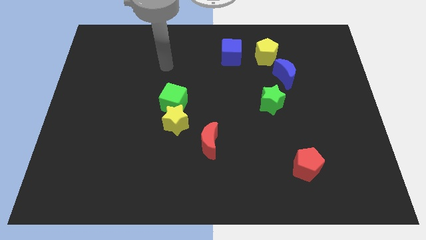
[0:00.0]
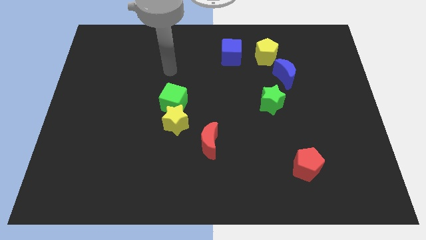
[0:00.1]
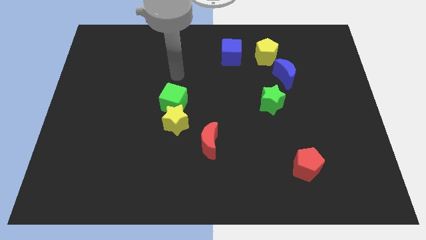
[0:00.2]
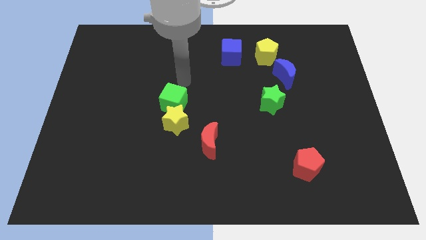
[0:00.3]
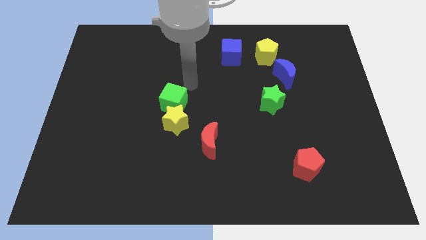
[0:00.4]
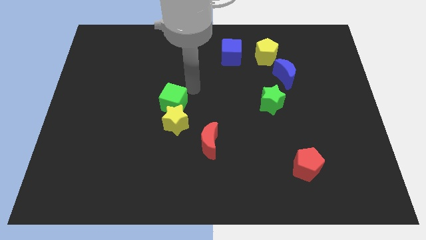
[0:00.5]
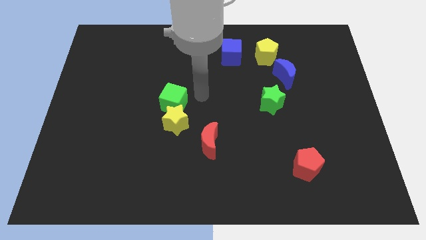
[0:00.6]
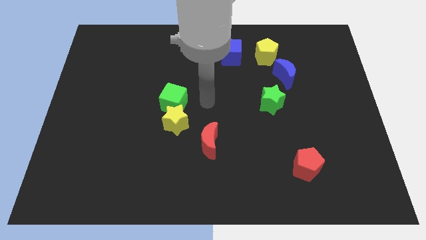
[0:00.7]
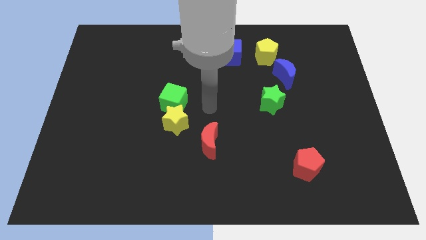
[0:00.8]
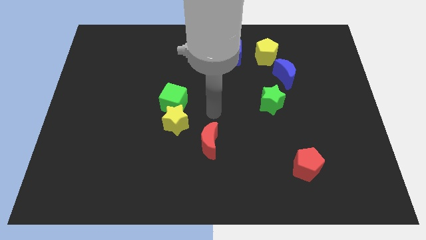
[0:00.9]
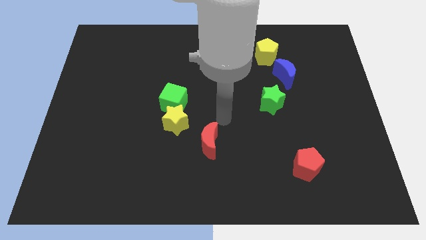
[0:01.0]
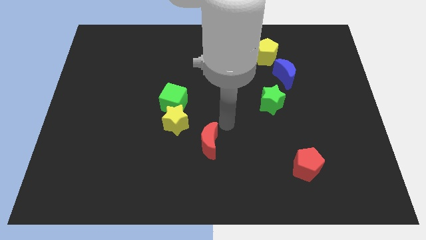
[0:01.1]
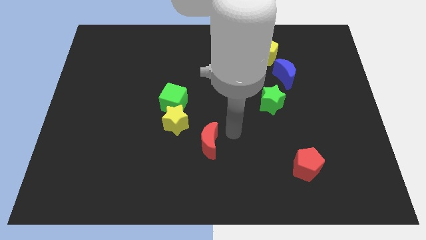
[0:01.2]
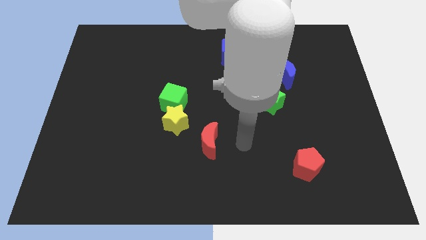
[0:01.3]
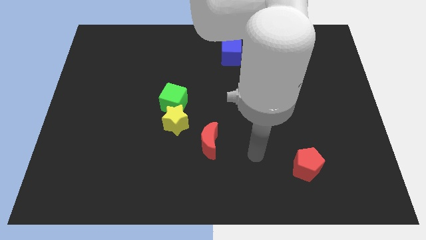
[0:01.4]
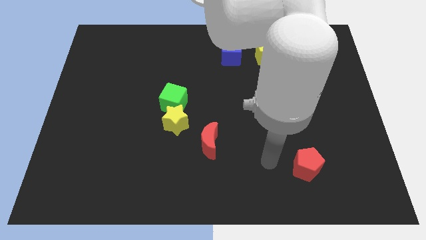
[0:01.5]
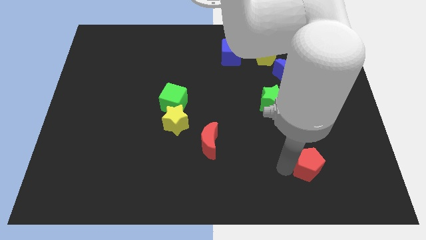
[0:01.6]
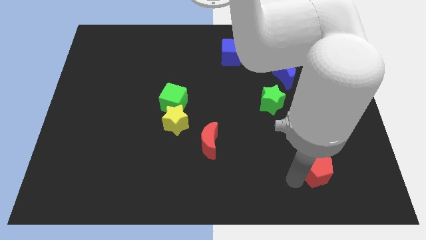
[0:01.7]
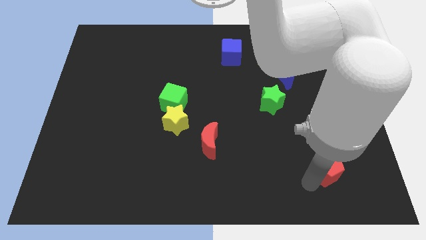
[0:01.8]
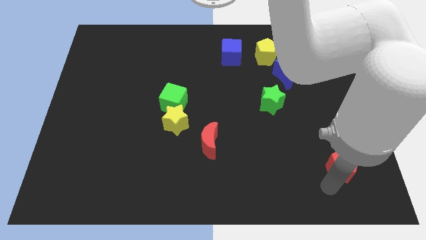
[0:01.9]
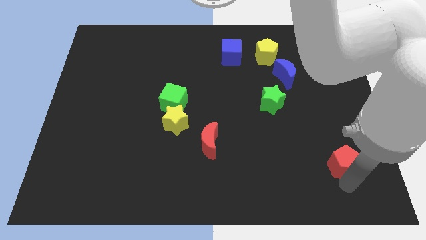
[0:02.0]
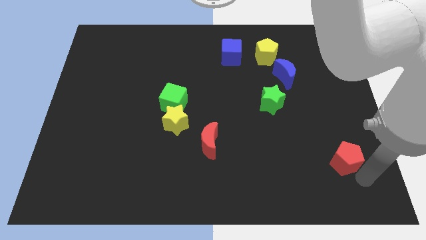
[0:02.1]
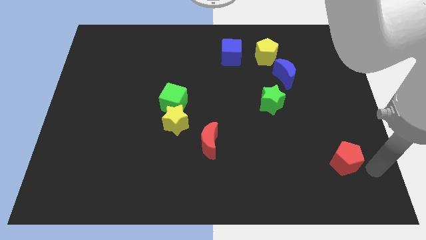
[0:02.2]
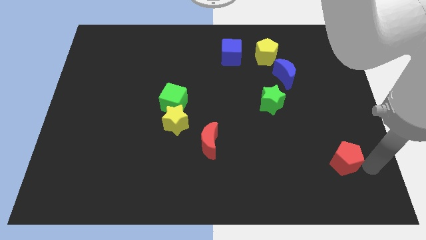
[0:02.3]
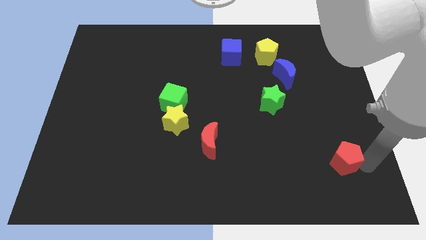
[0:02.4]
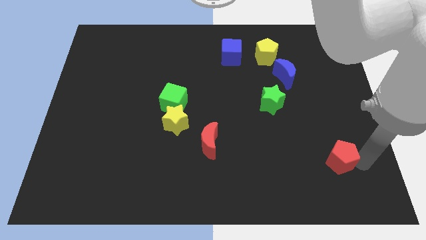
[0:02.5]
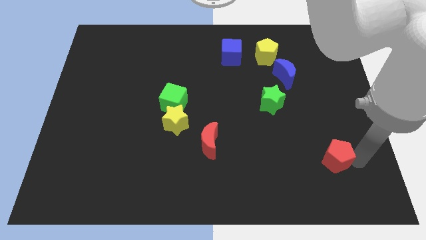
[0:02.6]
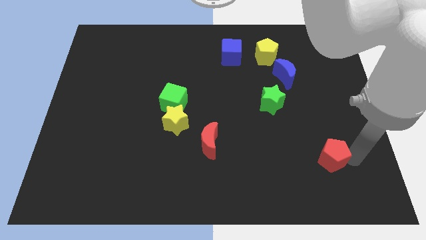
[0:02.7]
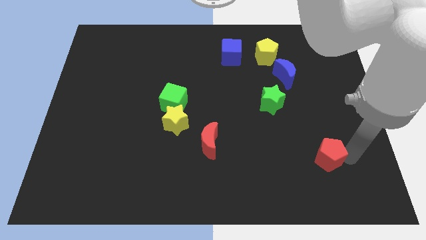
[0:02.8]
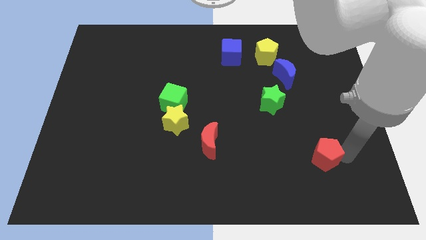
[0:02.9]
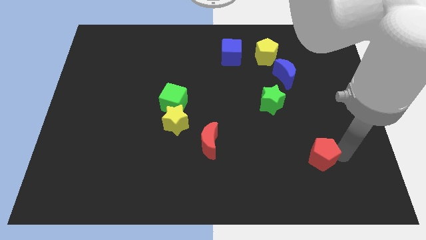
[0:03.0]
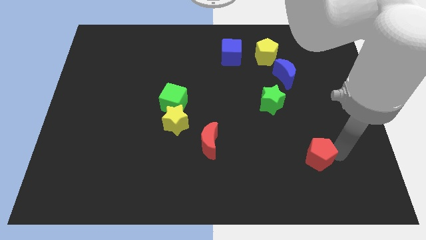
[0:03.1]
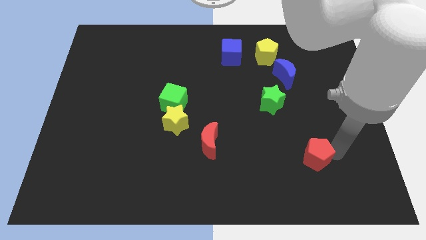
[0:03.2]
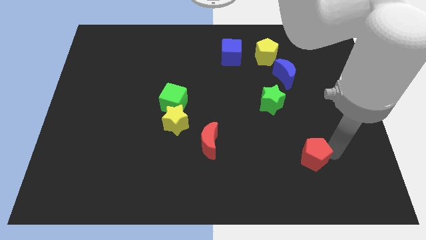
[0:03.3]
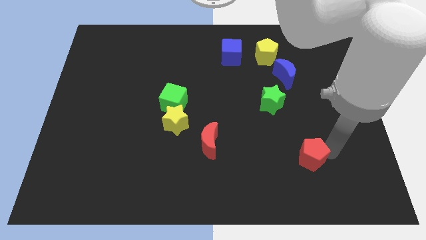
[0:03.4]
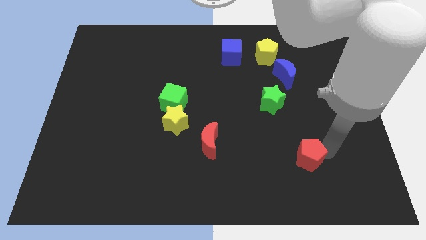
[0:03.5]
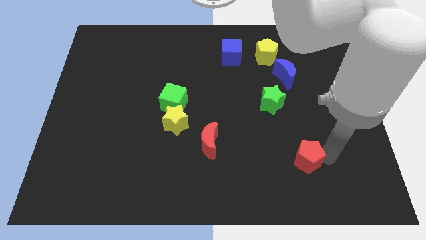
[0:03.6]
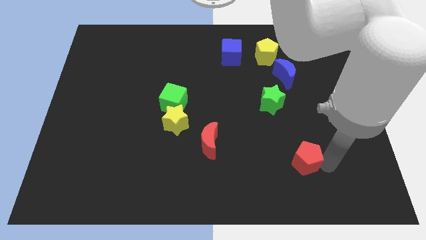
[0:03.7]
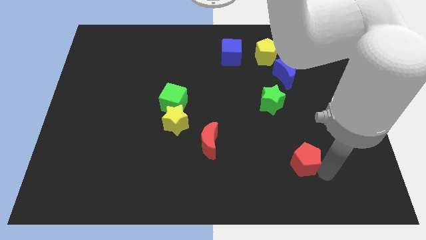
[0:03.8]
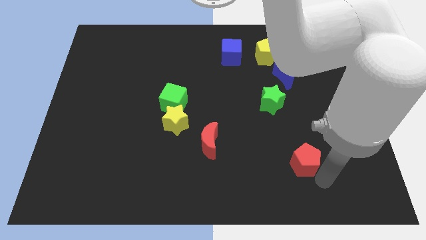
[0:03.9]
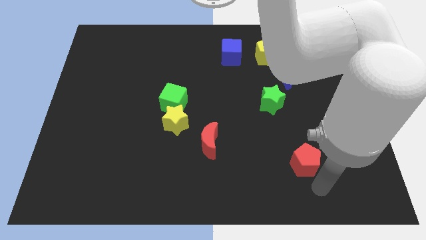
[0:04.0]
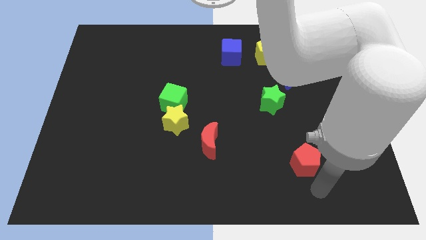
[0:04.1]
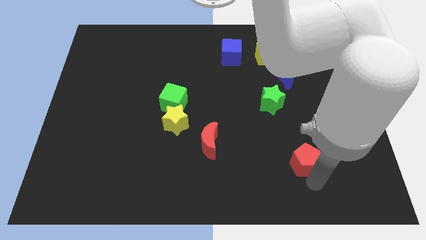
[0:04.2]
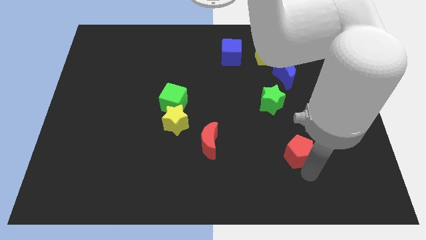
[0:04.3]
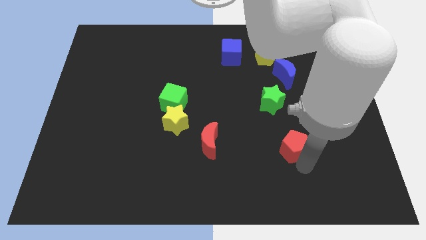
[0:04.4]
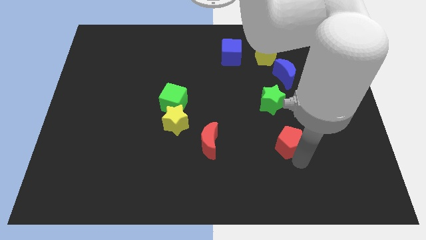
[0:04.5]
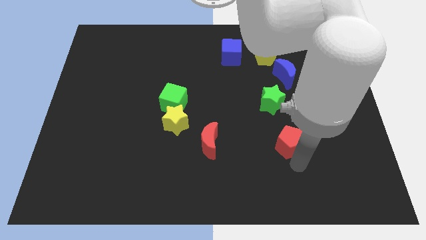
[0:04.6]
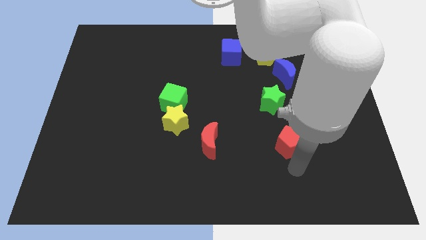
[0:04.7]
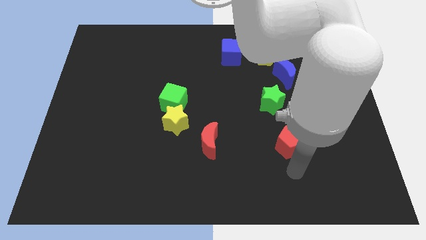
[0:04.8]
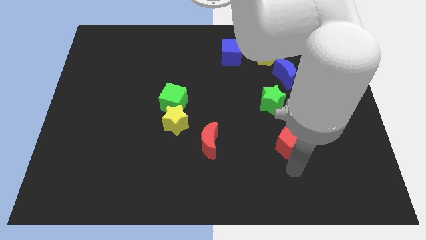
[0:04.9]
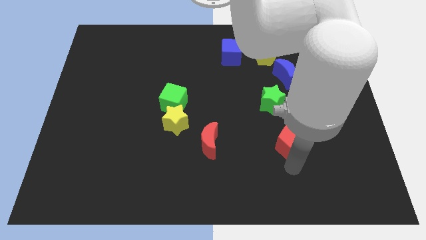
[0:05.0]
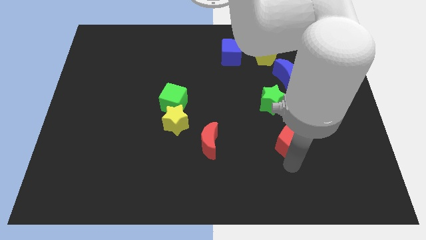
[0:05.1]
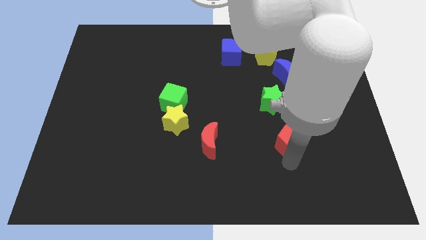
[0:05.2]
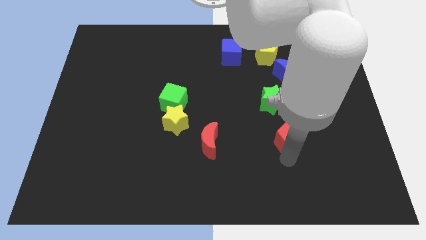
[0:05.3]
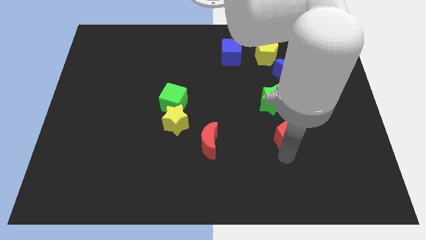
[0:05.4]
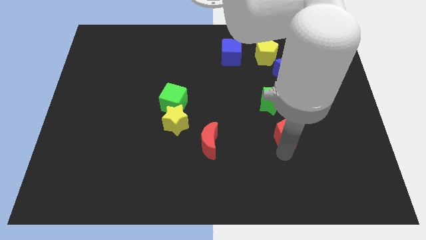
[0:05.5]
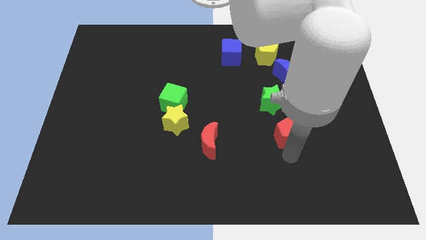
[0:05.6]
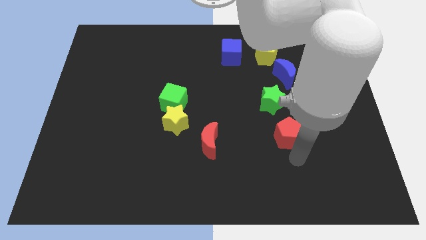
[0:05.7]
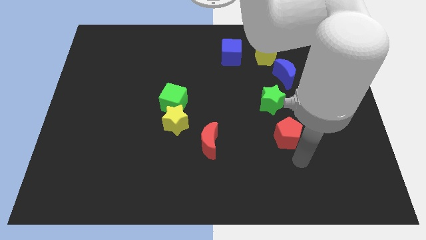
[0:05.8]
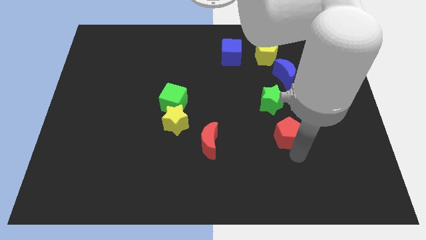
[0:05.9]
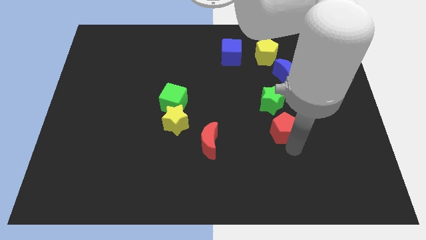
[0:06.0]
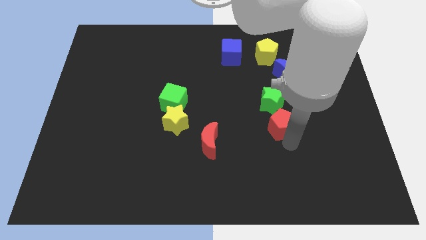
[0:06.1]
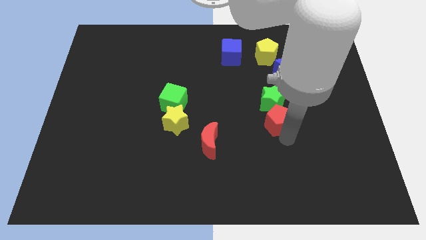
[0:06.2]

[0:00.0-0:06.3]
put the red pentagon close to the green star

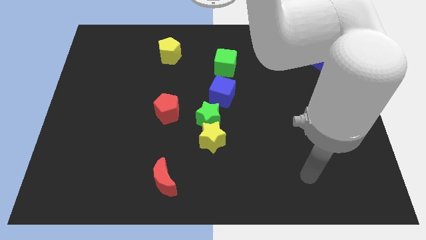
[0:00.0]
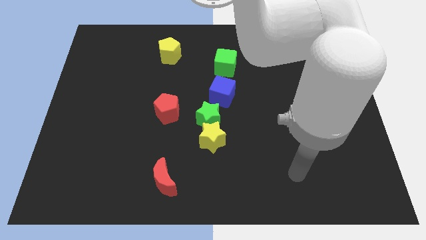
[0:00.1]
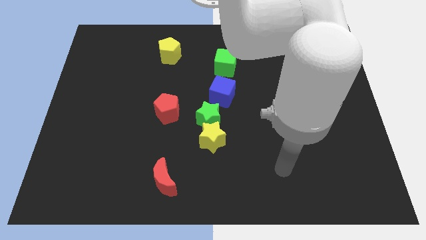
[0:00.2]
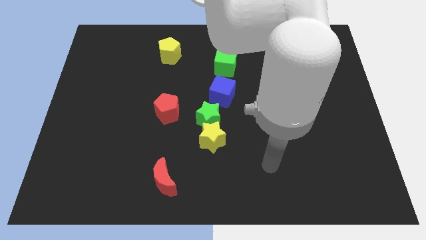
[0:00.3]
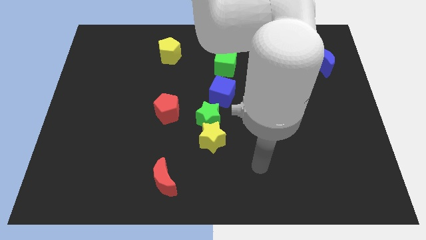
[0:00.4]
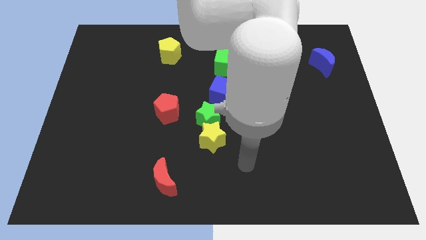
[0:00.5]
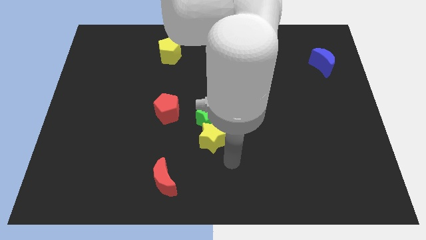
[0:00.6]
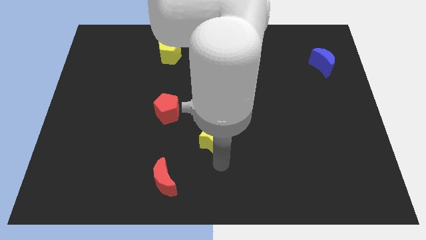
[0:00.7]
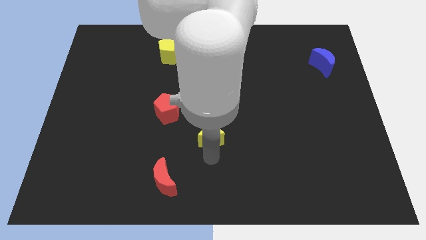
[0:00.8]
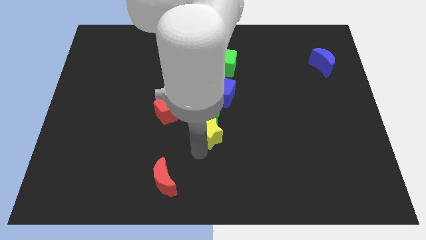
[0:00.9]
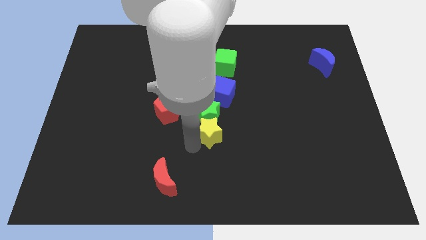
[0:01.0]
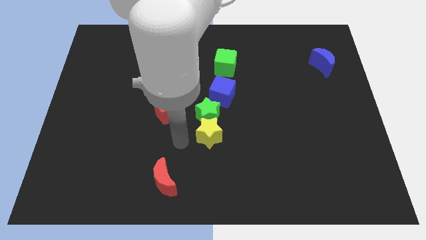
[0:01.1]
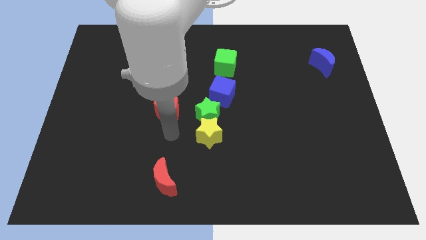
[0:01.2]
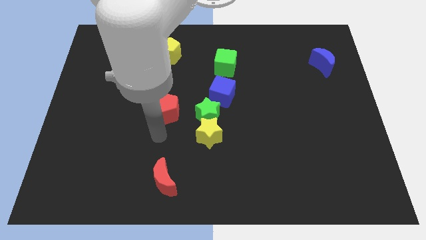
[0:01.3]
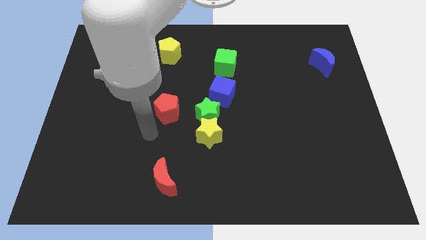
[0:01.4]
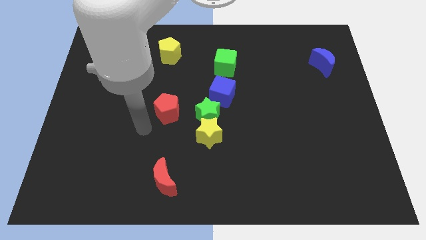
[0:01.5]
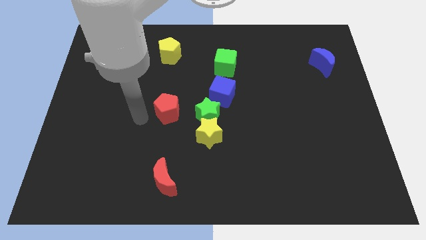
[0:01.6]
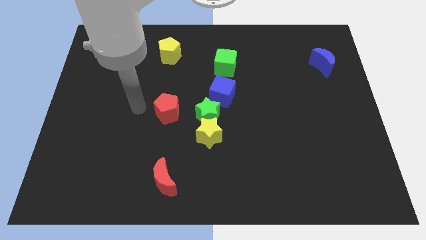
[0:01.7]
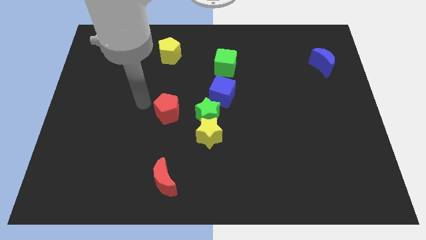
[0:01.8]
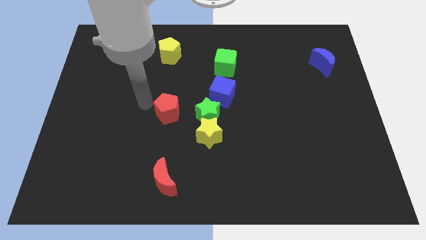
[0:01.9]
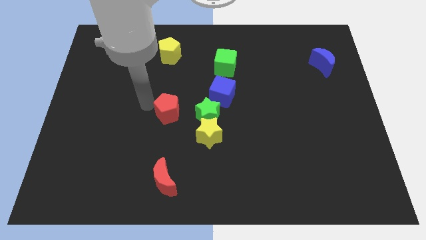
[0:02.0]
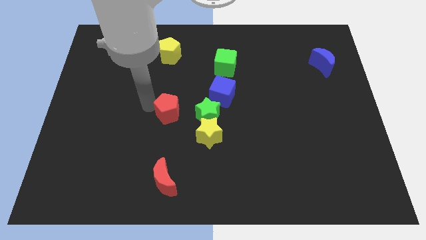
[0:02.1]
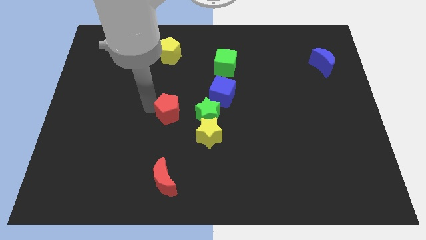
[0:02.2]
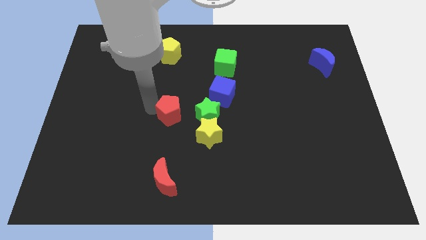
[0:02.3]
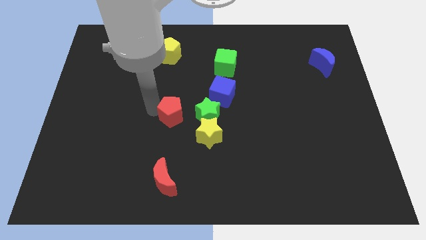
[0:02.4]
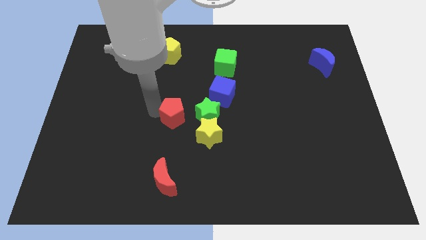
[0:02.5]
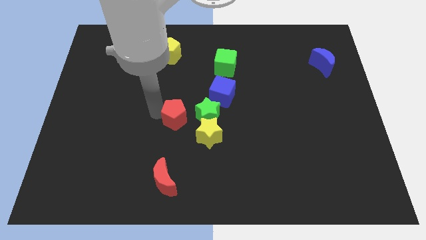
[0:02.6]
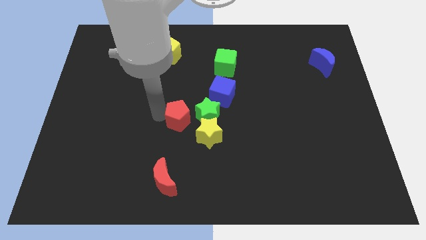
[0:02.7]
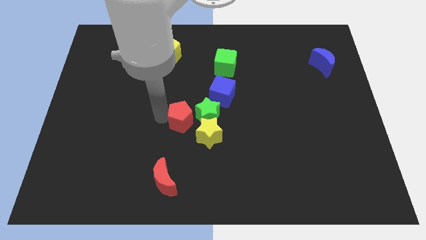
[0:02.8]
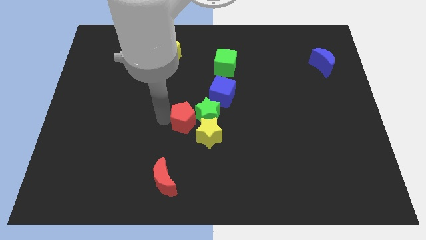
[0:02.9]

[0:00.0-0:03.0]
put the red pentagon towards the green star
